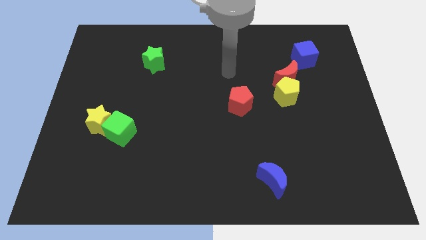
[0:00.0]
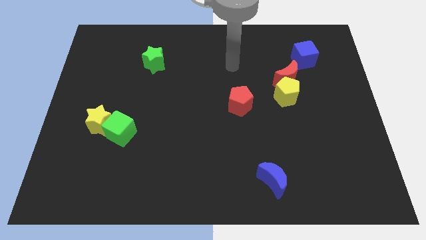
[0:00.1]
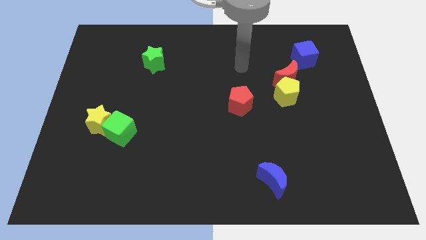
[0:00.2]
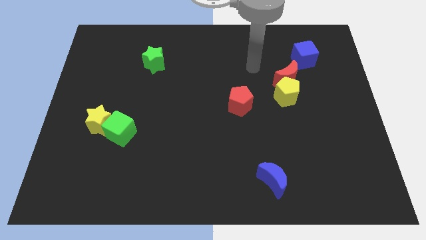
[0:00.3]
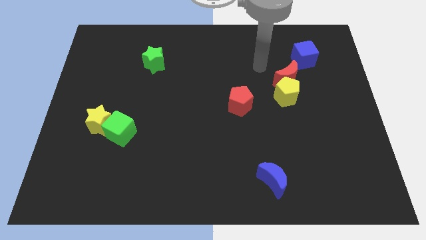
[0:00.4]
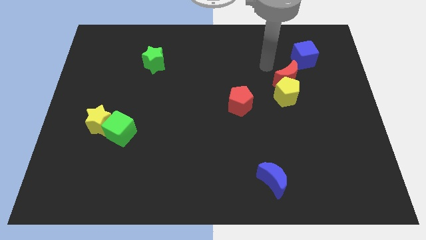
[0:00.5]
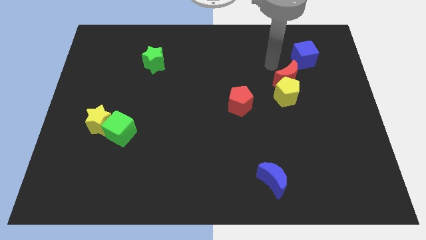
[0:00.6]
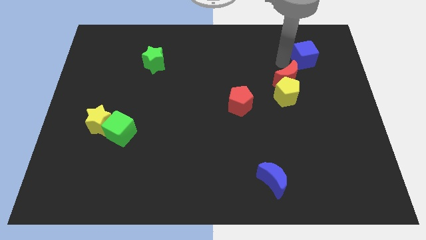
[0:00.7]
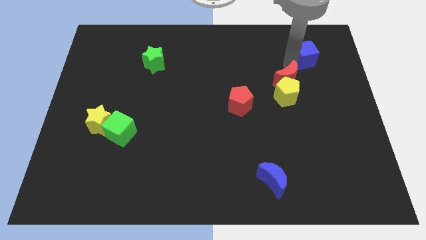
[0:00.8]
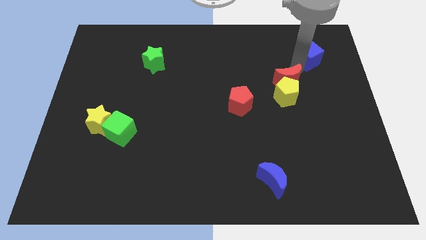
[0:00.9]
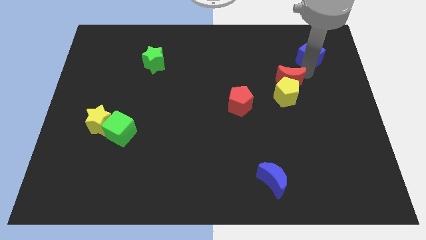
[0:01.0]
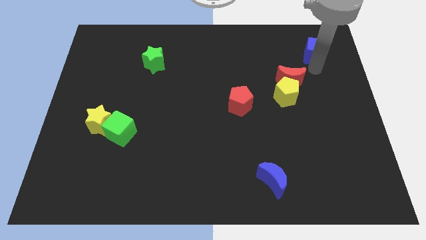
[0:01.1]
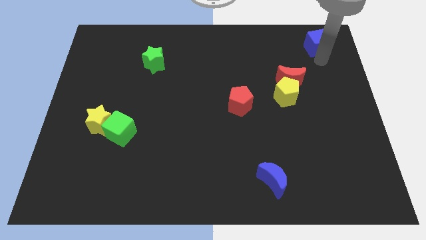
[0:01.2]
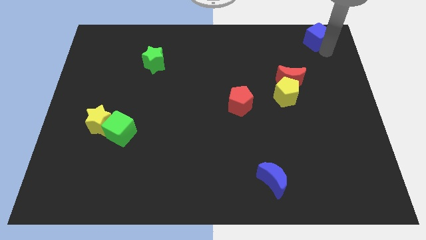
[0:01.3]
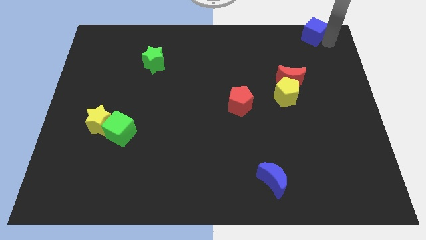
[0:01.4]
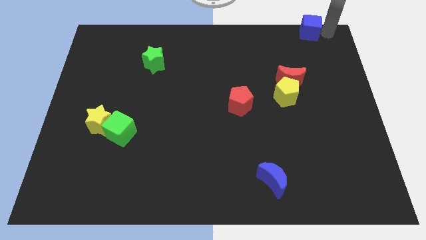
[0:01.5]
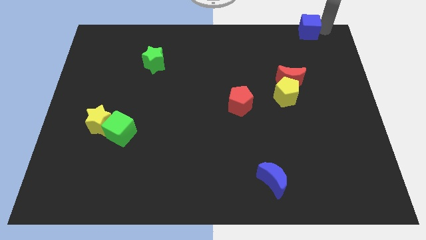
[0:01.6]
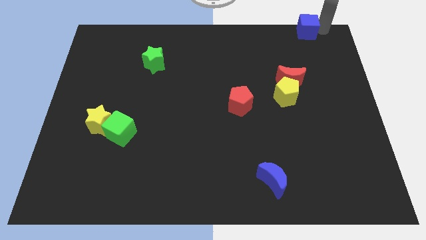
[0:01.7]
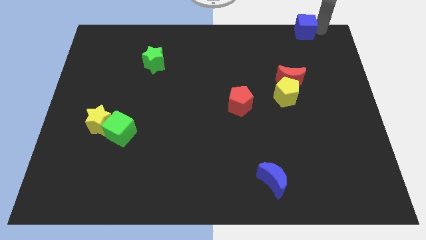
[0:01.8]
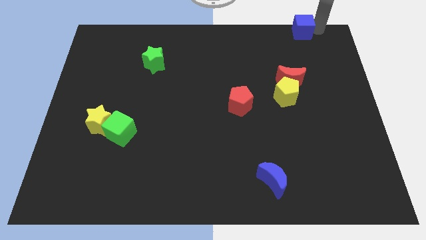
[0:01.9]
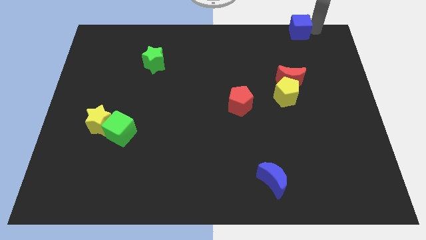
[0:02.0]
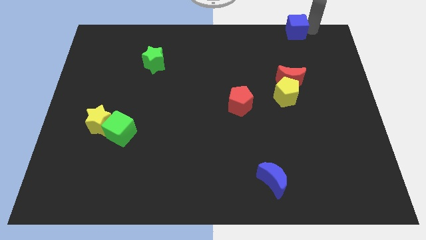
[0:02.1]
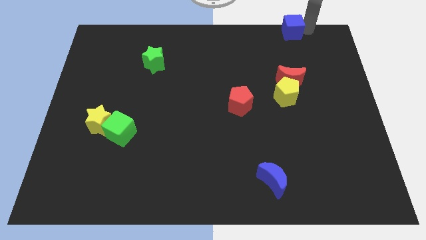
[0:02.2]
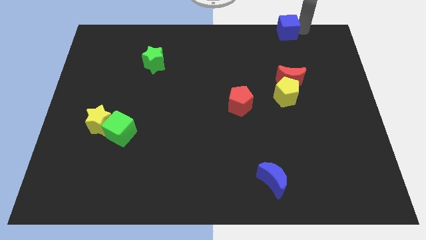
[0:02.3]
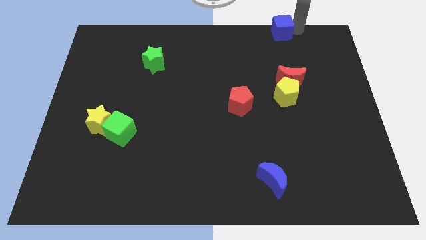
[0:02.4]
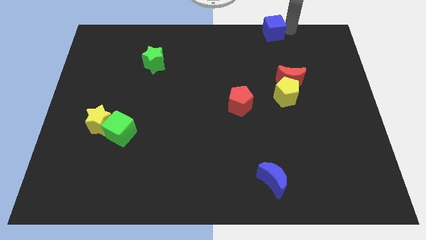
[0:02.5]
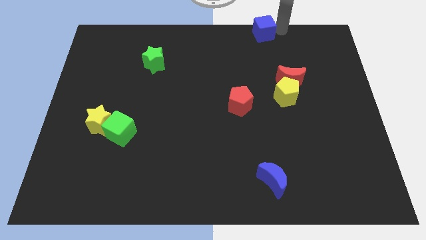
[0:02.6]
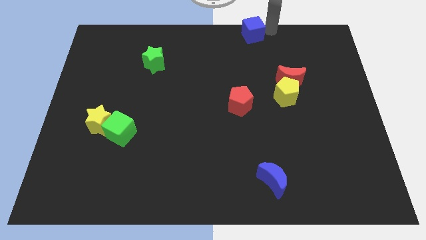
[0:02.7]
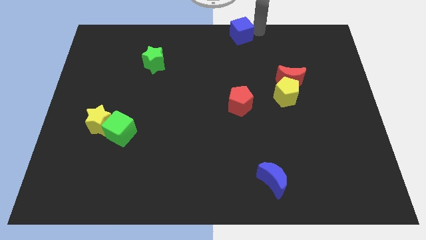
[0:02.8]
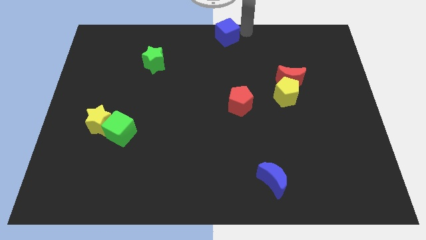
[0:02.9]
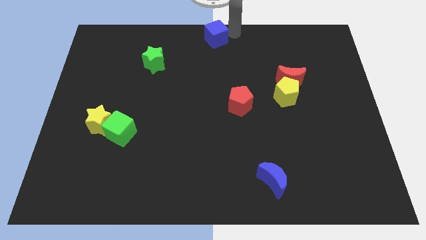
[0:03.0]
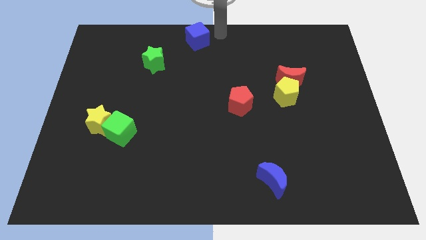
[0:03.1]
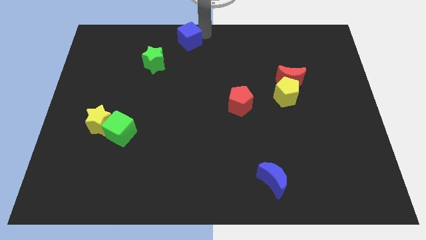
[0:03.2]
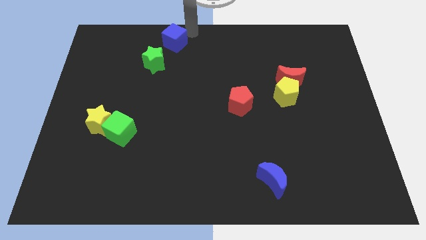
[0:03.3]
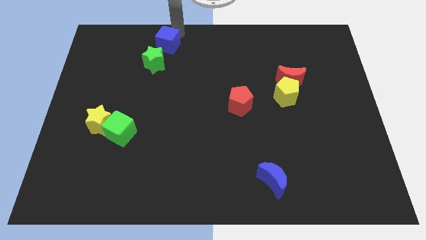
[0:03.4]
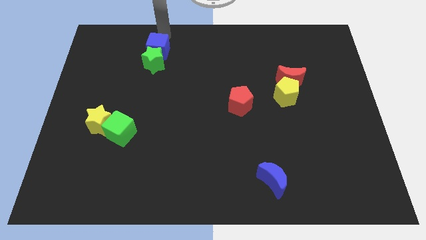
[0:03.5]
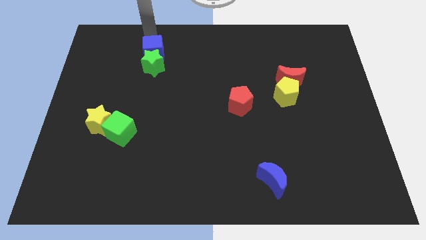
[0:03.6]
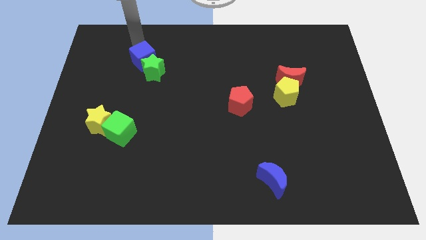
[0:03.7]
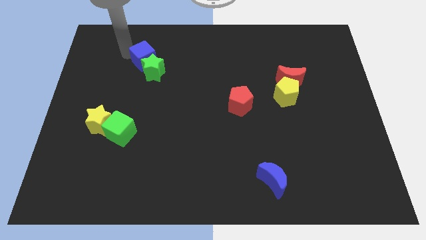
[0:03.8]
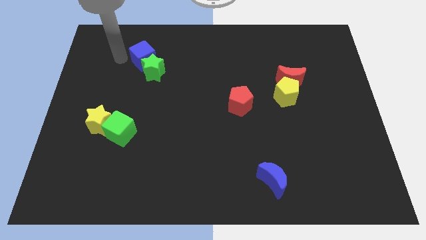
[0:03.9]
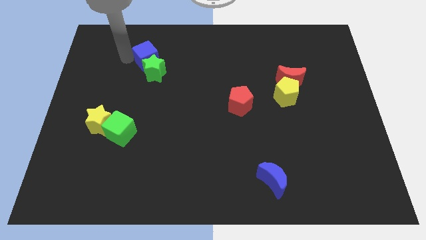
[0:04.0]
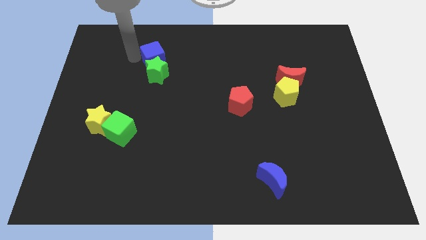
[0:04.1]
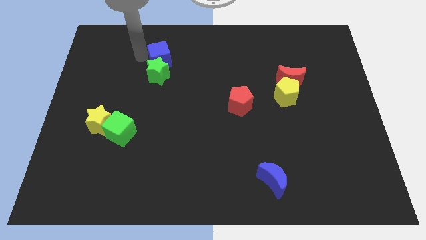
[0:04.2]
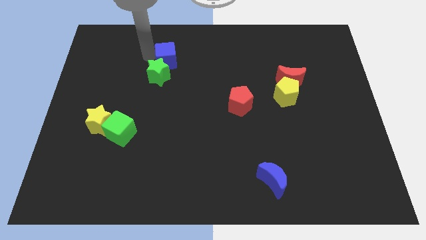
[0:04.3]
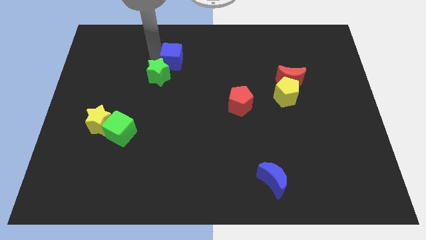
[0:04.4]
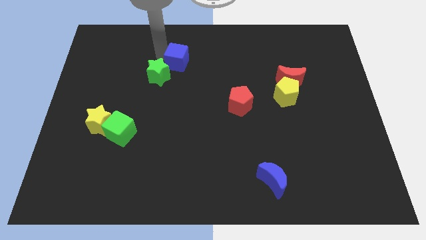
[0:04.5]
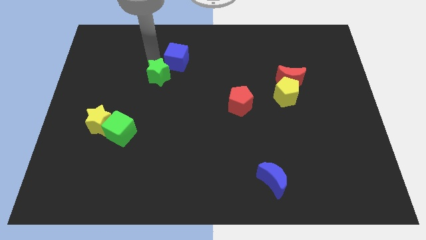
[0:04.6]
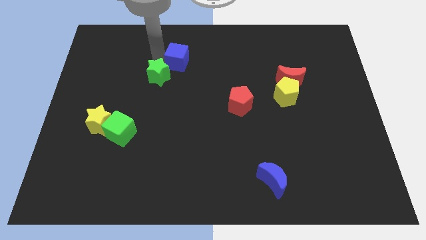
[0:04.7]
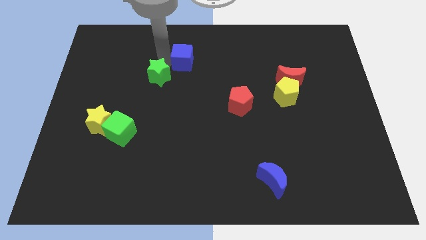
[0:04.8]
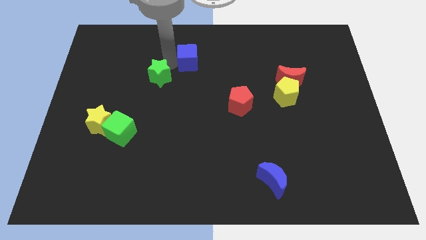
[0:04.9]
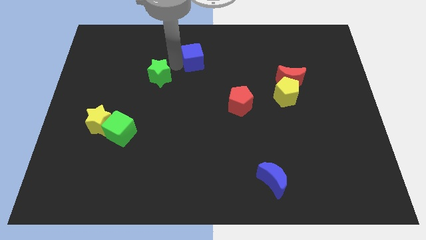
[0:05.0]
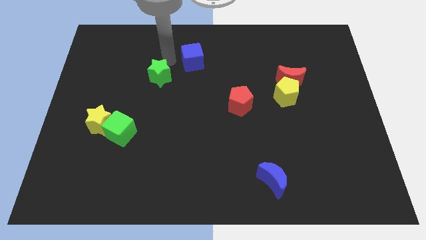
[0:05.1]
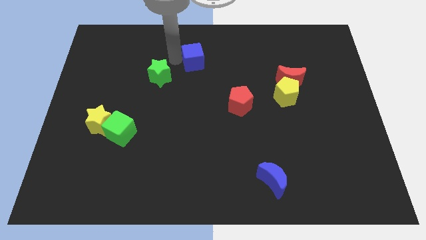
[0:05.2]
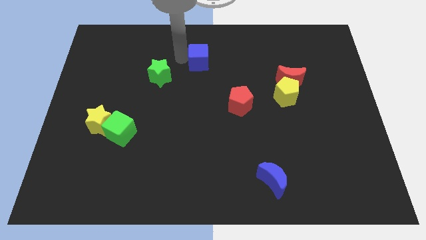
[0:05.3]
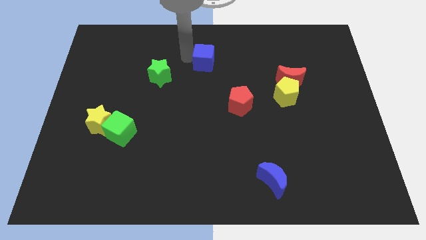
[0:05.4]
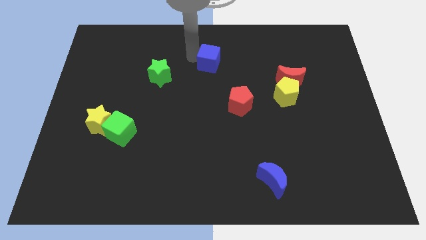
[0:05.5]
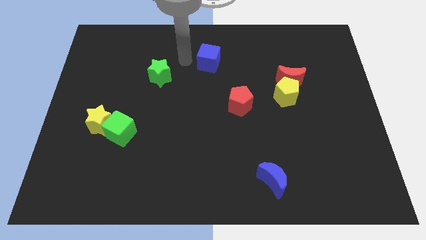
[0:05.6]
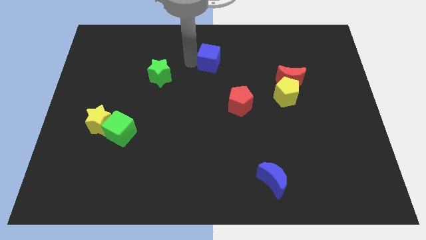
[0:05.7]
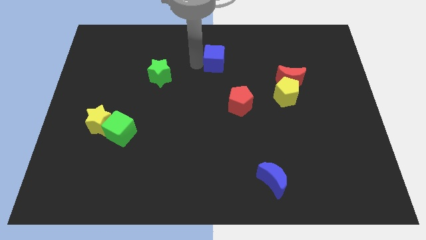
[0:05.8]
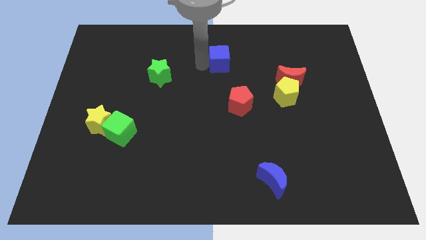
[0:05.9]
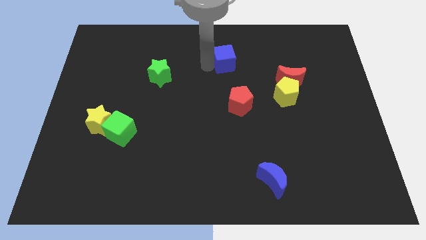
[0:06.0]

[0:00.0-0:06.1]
slide the blue cube to the top side of the red pentagon
